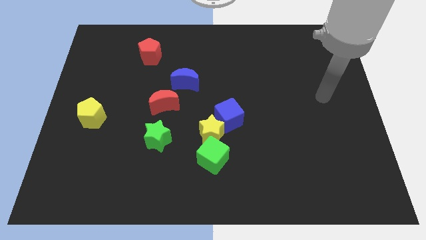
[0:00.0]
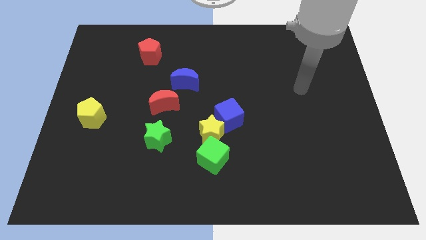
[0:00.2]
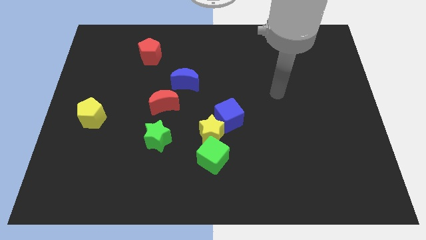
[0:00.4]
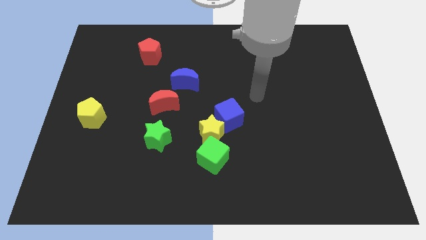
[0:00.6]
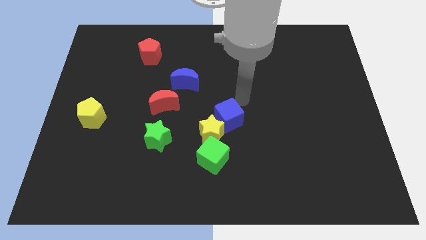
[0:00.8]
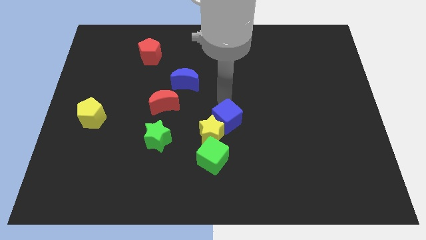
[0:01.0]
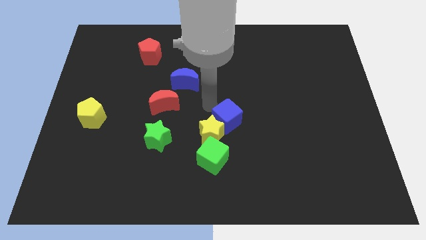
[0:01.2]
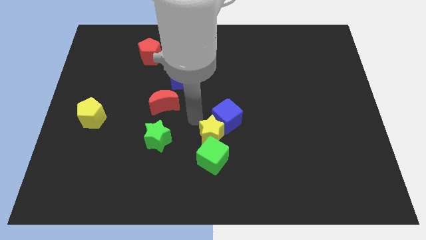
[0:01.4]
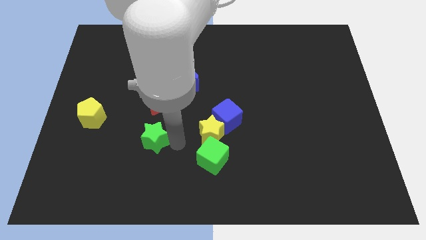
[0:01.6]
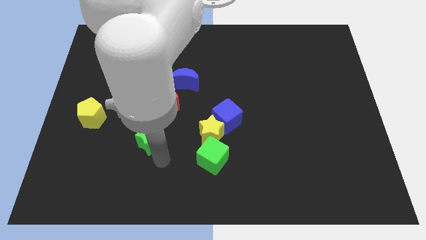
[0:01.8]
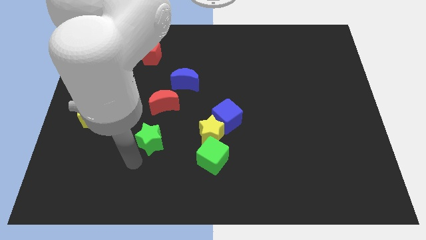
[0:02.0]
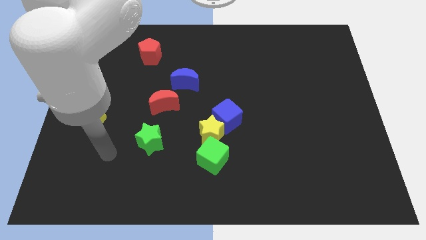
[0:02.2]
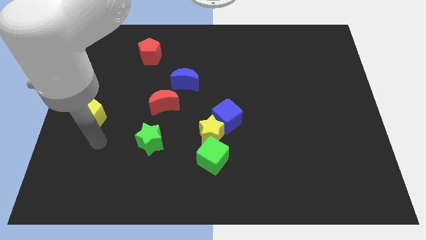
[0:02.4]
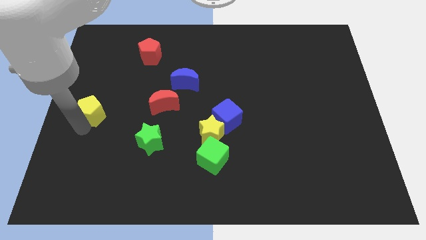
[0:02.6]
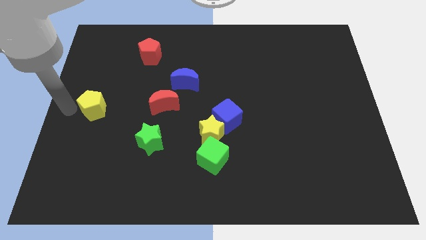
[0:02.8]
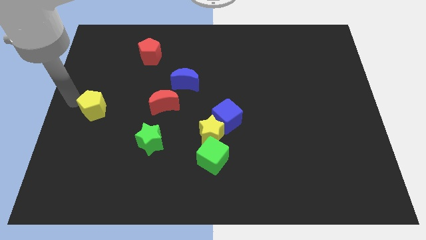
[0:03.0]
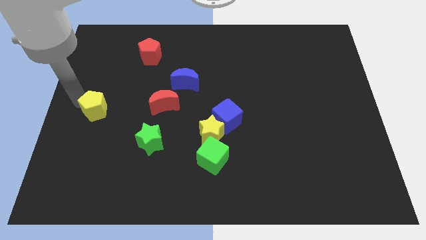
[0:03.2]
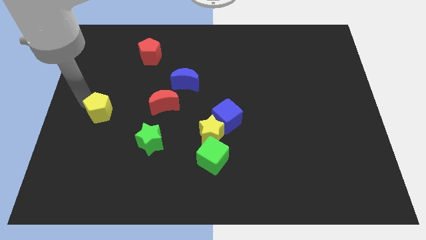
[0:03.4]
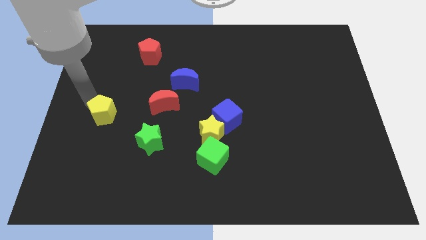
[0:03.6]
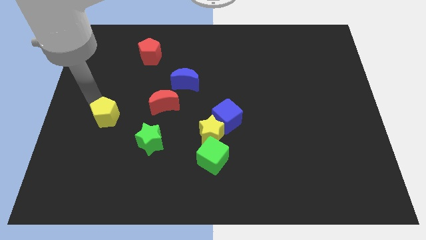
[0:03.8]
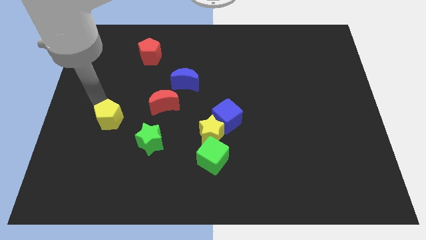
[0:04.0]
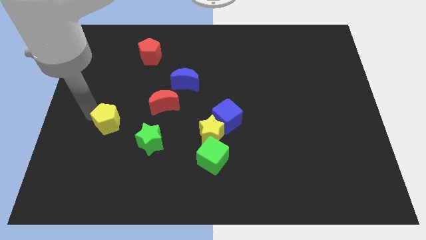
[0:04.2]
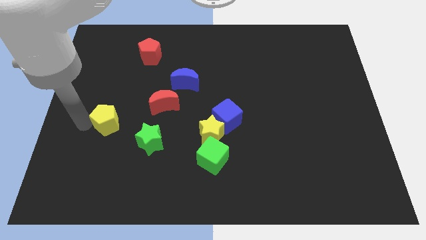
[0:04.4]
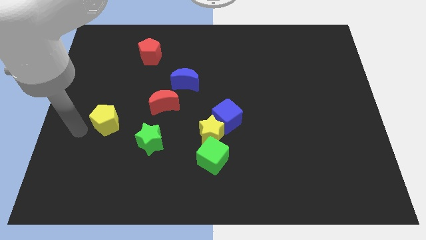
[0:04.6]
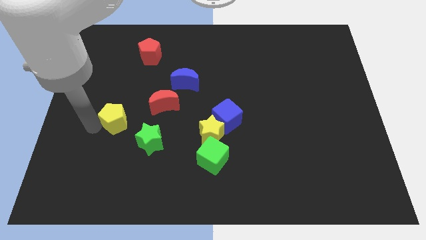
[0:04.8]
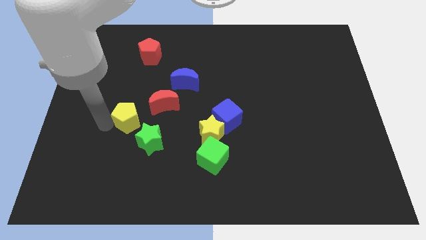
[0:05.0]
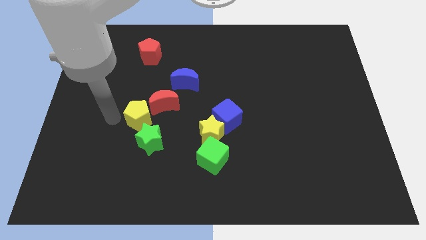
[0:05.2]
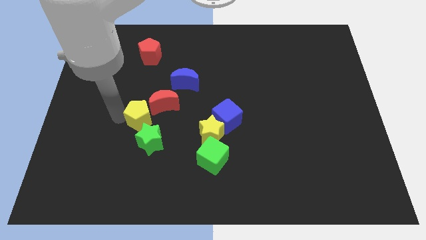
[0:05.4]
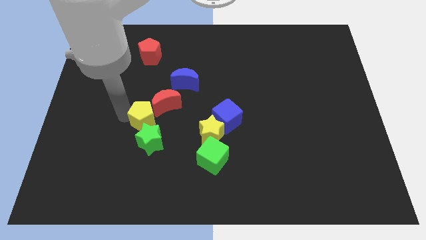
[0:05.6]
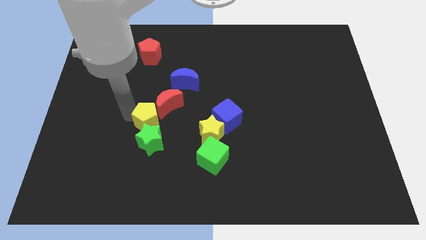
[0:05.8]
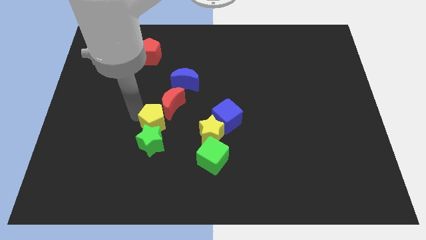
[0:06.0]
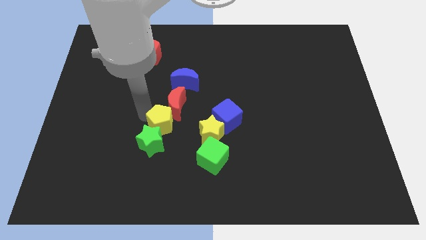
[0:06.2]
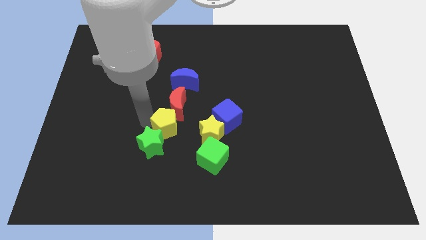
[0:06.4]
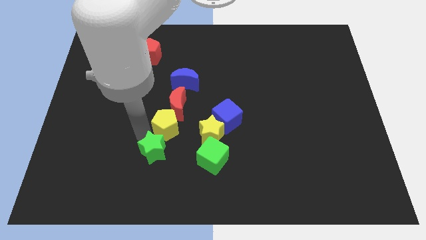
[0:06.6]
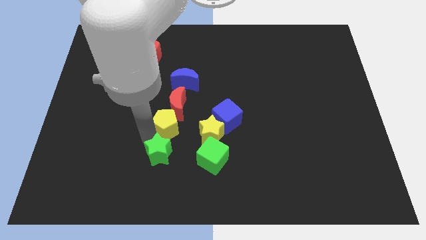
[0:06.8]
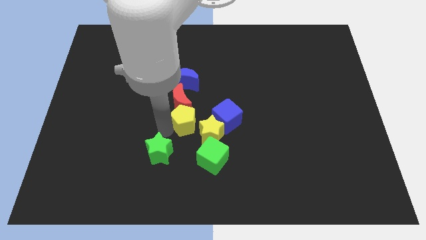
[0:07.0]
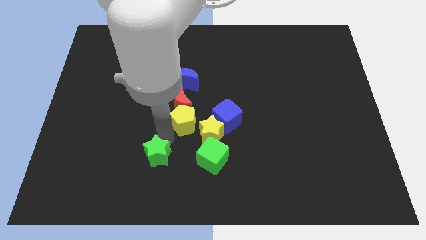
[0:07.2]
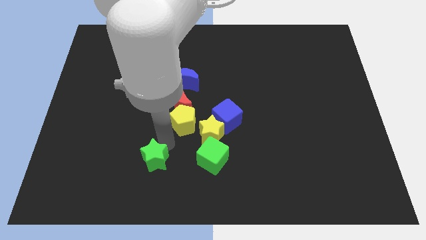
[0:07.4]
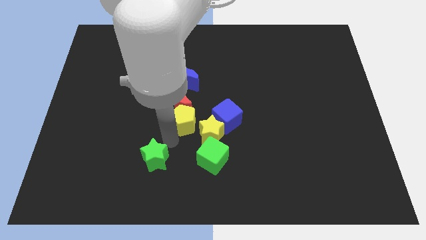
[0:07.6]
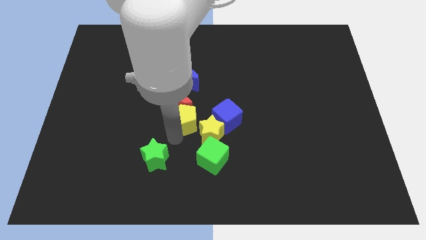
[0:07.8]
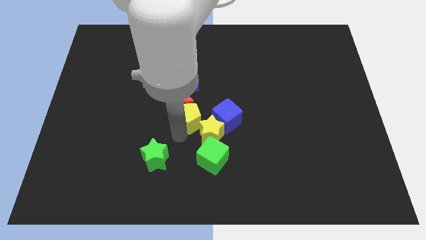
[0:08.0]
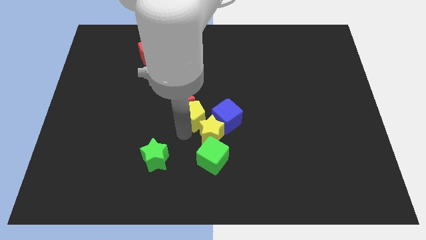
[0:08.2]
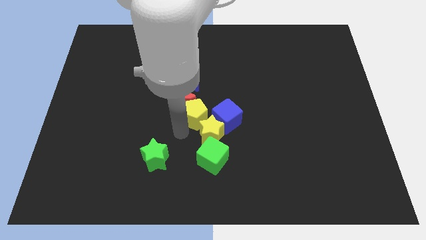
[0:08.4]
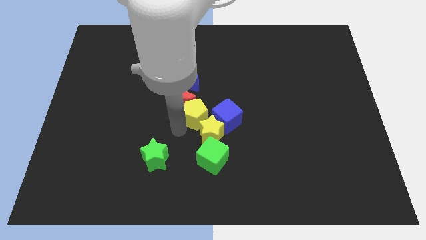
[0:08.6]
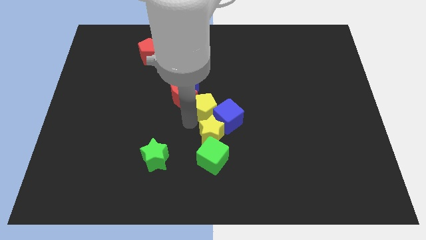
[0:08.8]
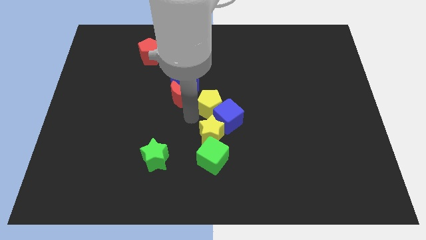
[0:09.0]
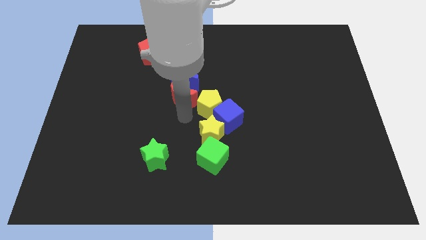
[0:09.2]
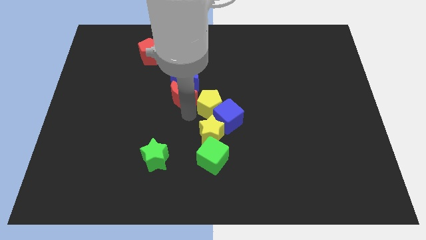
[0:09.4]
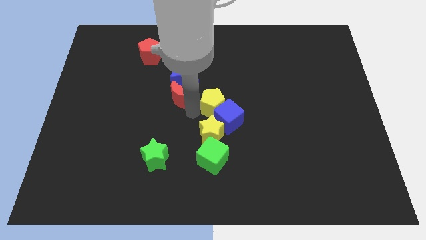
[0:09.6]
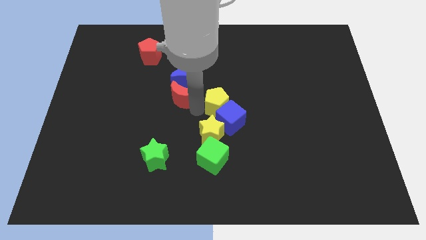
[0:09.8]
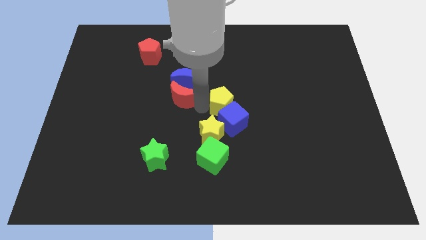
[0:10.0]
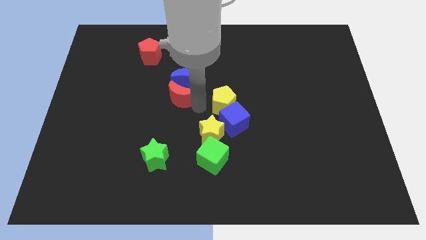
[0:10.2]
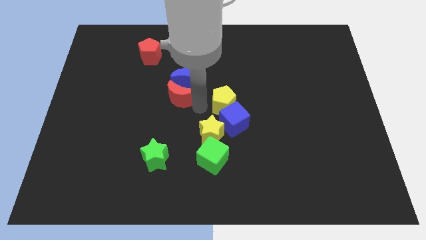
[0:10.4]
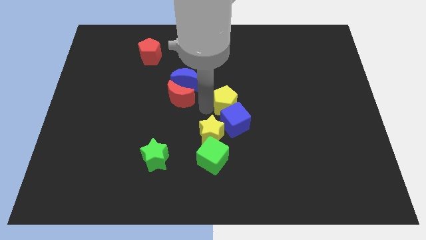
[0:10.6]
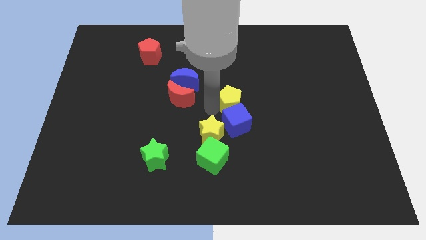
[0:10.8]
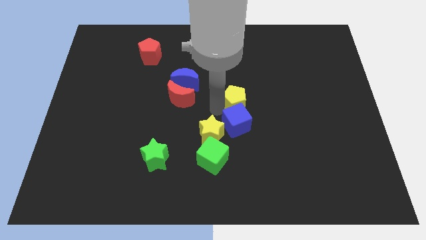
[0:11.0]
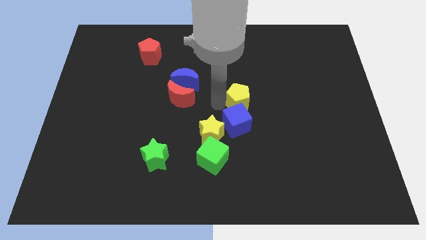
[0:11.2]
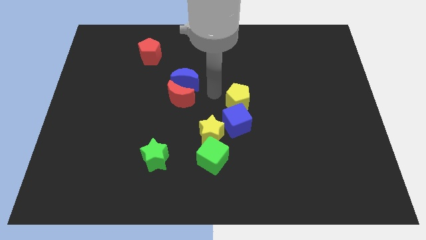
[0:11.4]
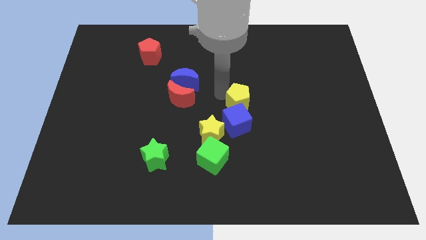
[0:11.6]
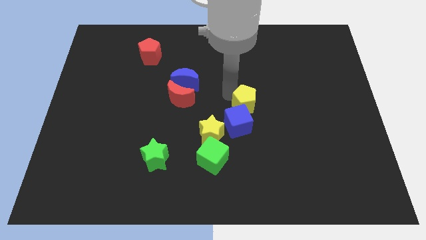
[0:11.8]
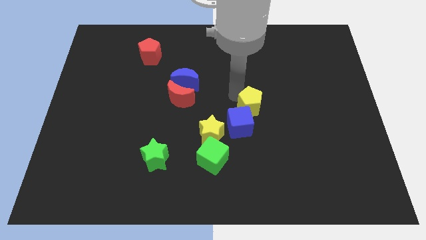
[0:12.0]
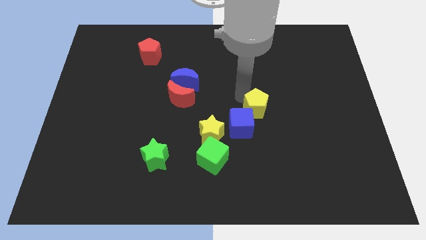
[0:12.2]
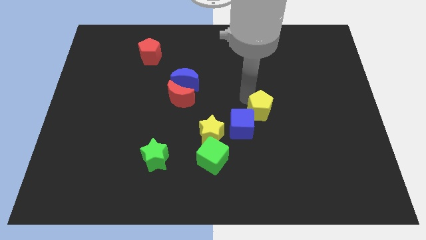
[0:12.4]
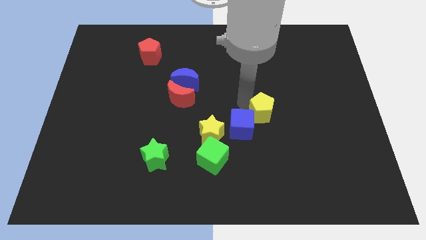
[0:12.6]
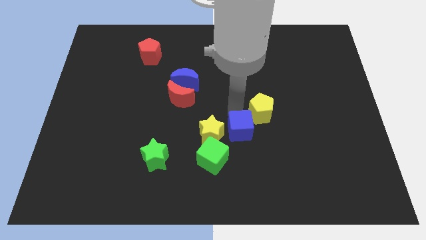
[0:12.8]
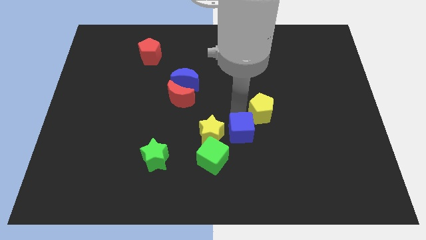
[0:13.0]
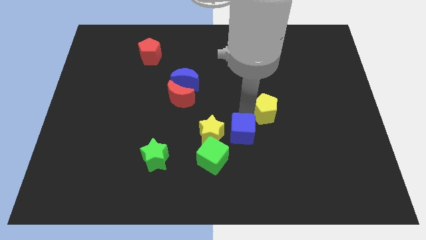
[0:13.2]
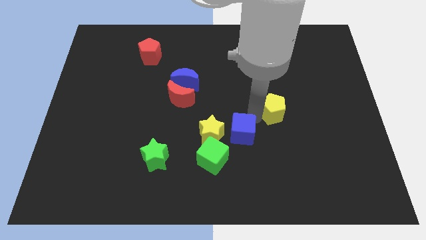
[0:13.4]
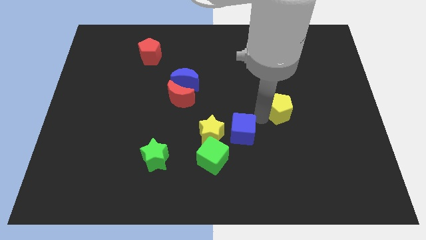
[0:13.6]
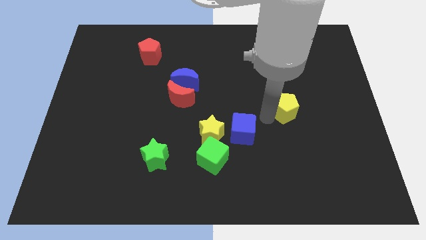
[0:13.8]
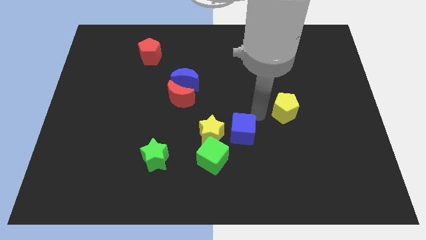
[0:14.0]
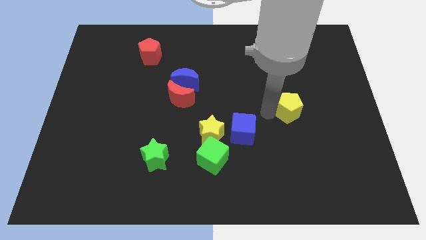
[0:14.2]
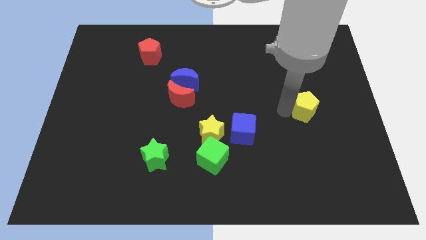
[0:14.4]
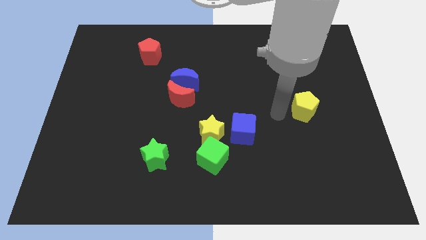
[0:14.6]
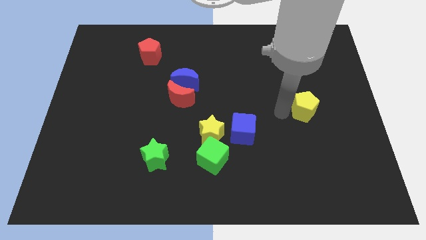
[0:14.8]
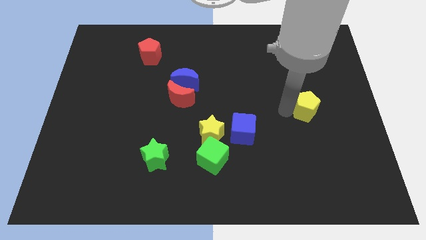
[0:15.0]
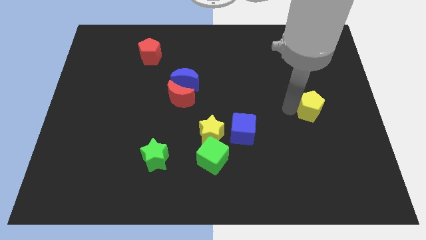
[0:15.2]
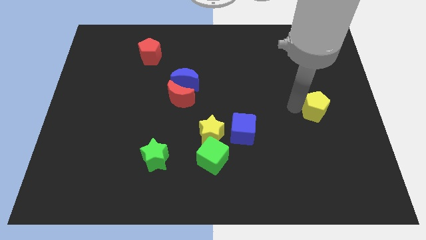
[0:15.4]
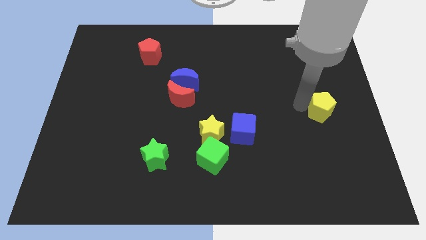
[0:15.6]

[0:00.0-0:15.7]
put the yellow pentagon to the right side of the board
